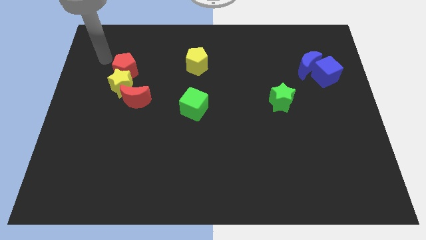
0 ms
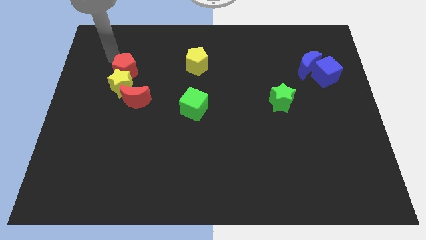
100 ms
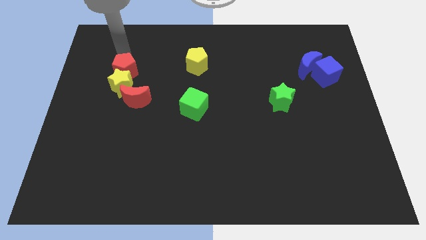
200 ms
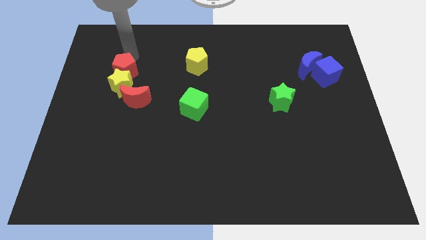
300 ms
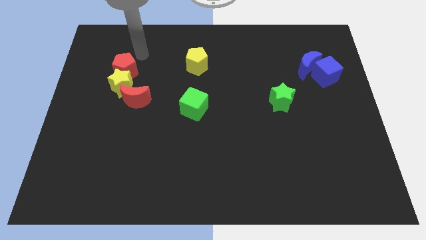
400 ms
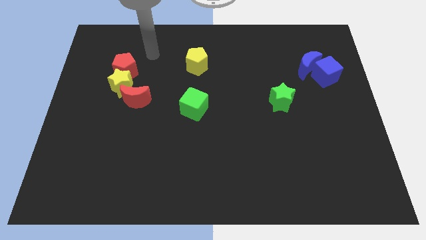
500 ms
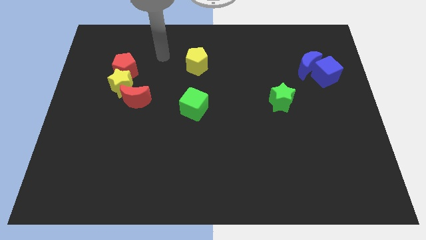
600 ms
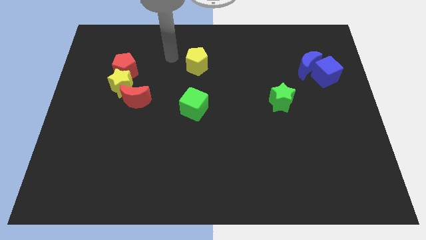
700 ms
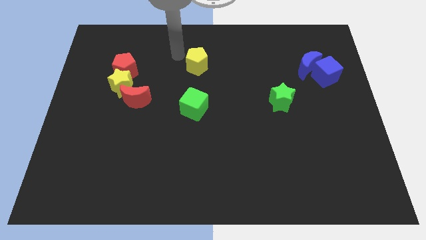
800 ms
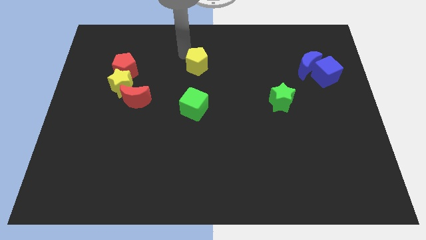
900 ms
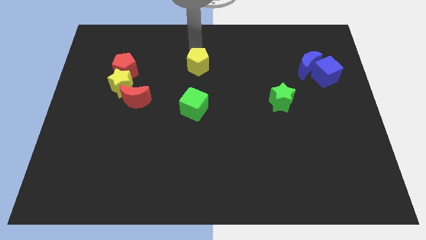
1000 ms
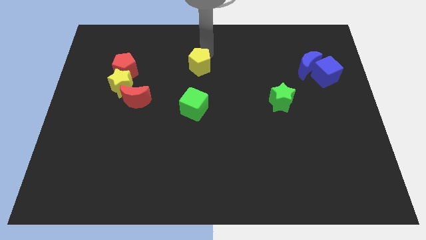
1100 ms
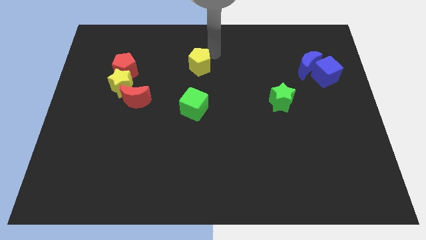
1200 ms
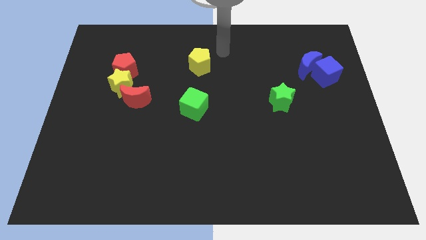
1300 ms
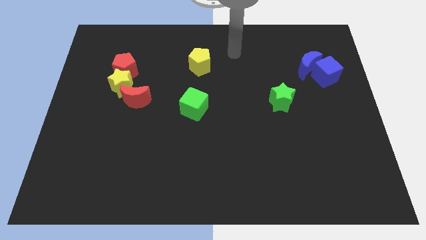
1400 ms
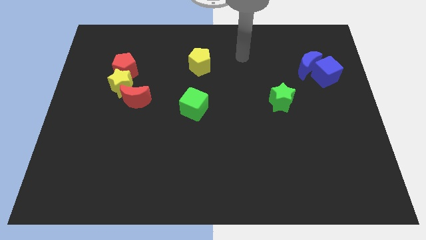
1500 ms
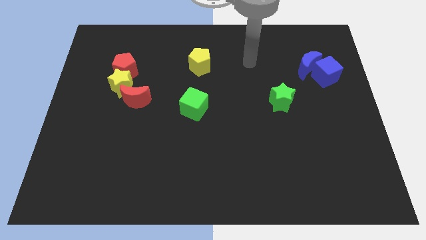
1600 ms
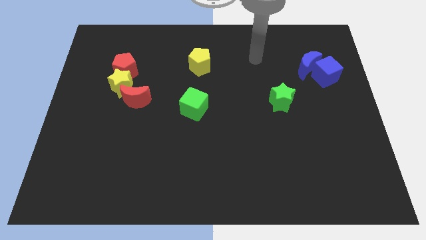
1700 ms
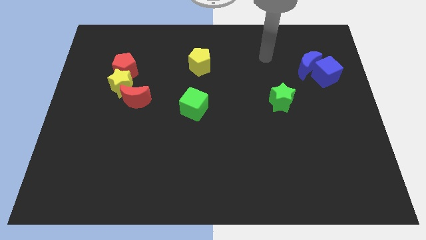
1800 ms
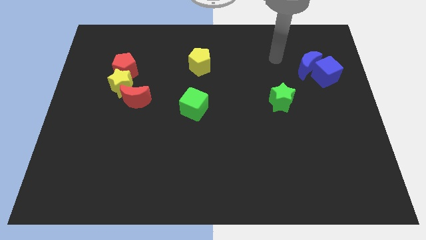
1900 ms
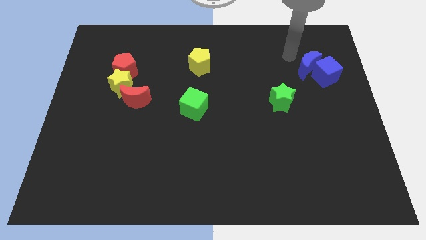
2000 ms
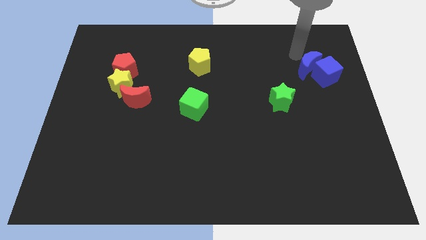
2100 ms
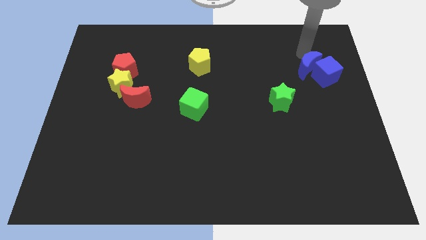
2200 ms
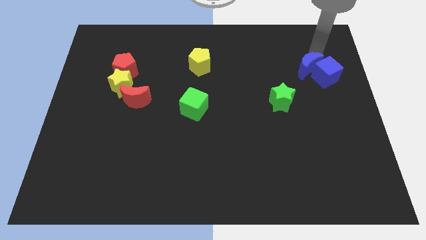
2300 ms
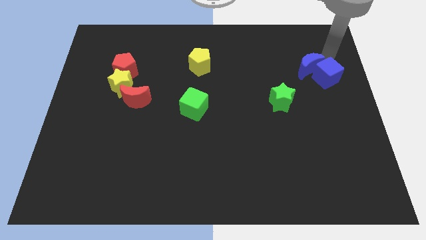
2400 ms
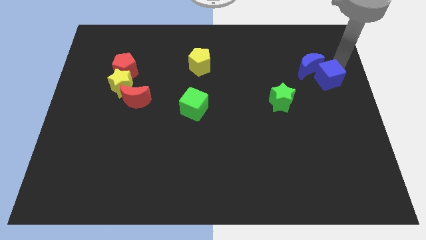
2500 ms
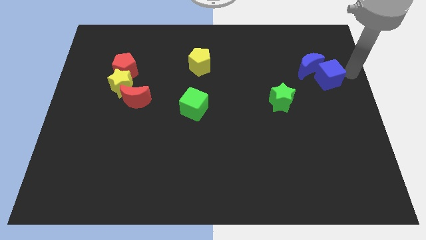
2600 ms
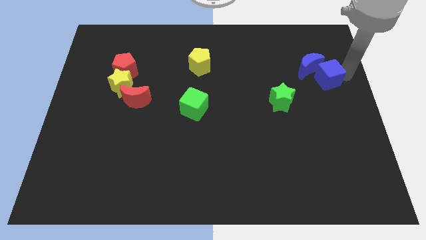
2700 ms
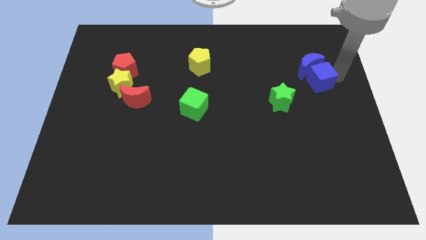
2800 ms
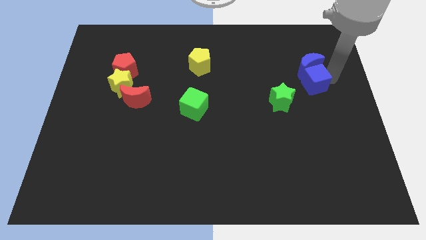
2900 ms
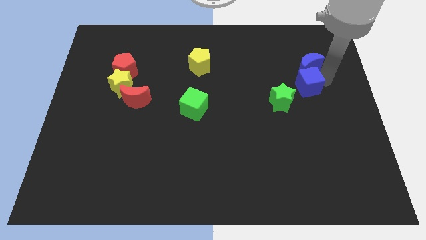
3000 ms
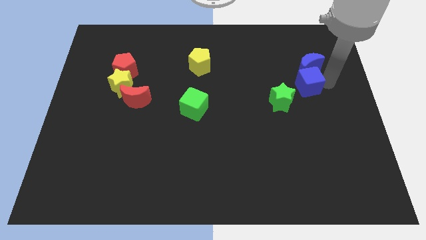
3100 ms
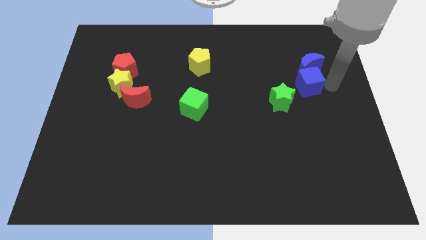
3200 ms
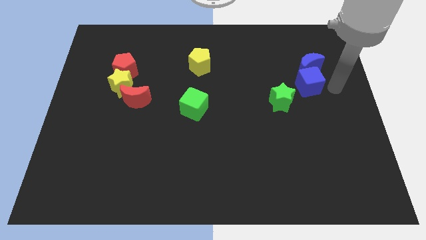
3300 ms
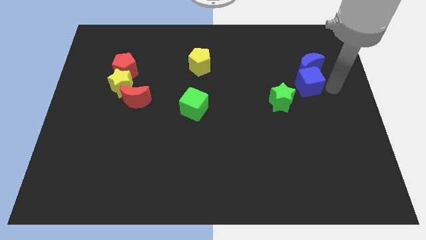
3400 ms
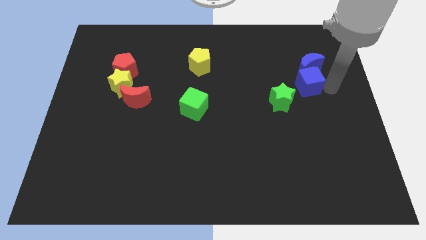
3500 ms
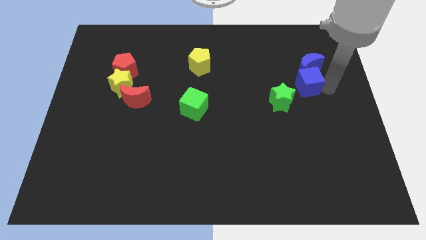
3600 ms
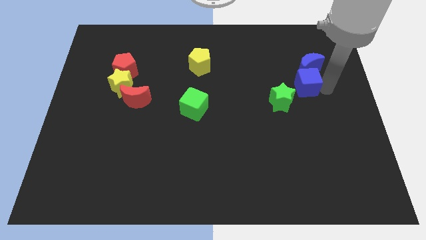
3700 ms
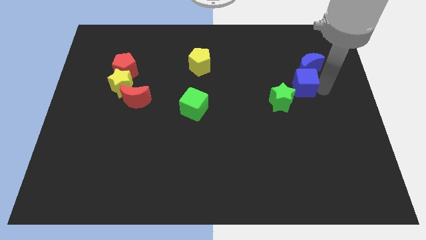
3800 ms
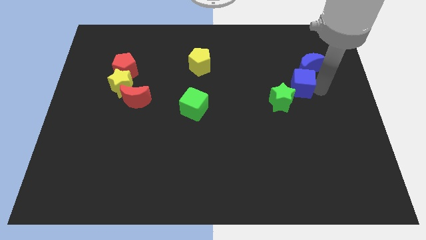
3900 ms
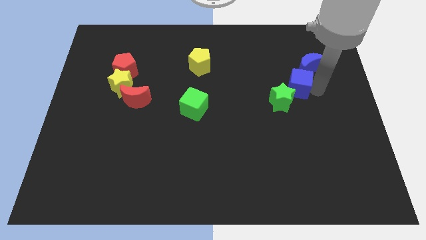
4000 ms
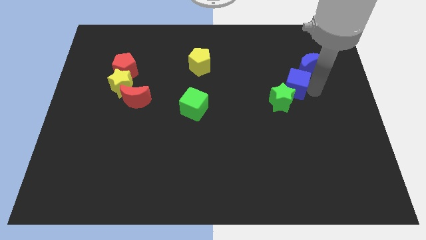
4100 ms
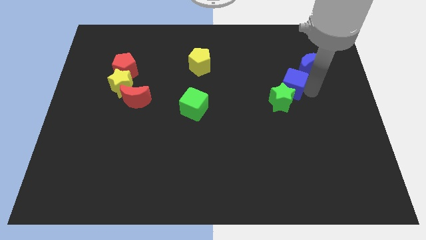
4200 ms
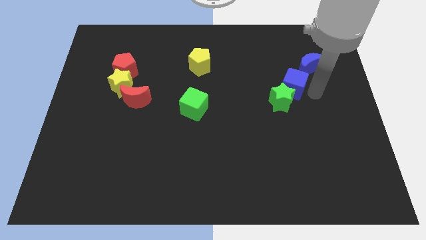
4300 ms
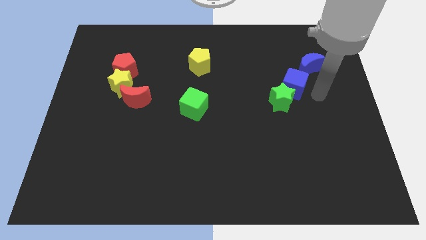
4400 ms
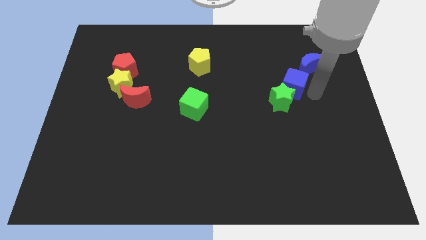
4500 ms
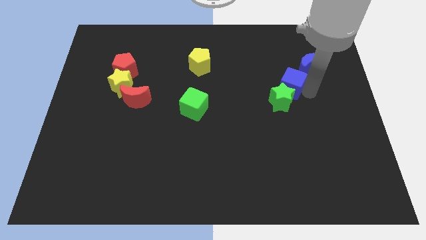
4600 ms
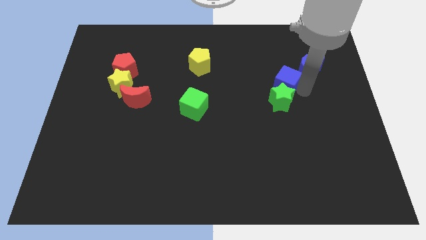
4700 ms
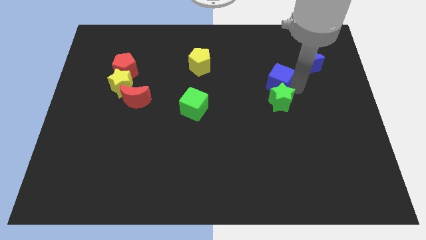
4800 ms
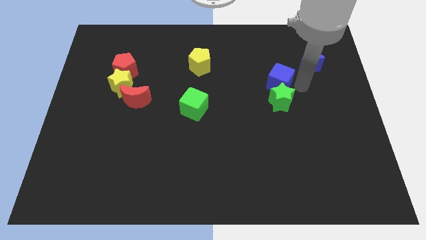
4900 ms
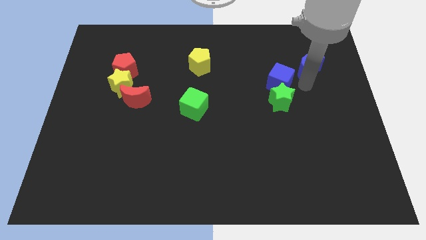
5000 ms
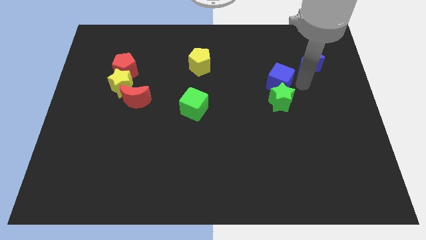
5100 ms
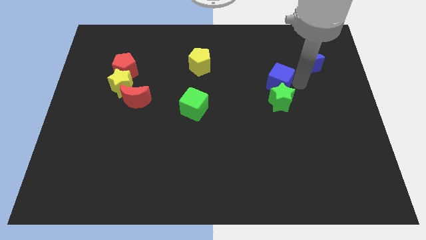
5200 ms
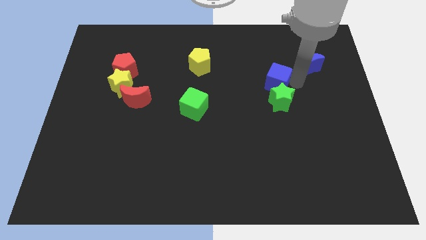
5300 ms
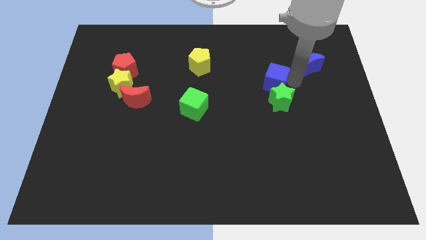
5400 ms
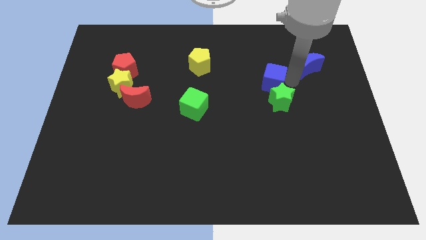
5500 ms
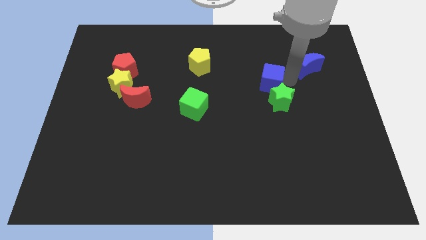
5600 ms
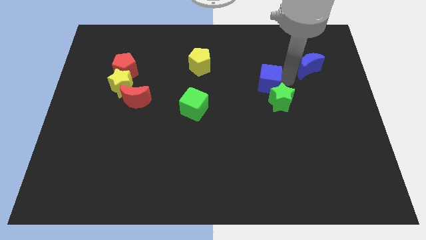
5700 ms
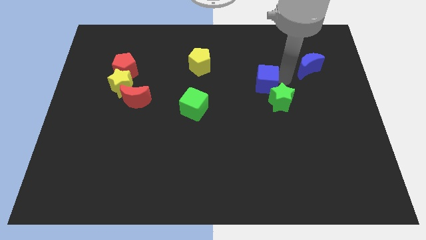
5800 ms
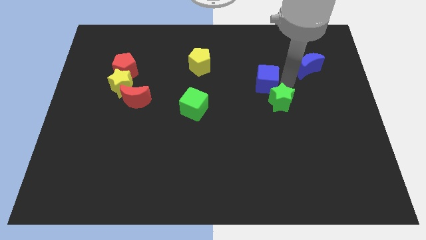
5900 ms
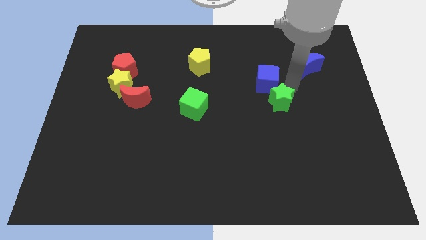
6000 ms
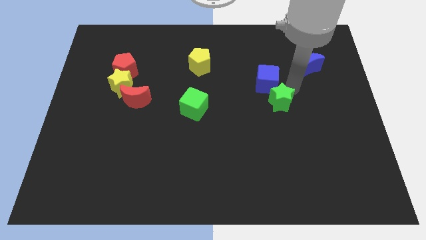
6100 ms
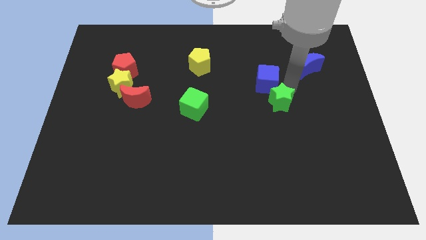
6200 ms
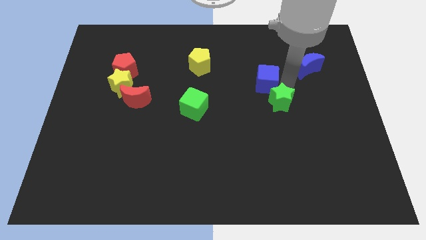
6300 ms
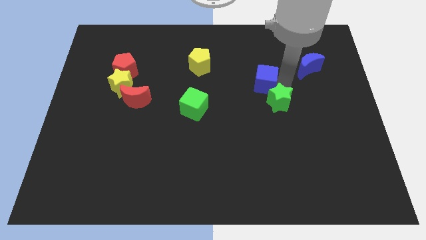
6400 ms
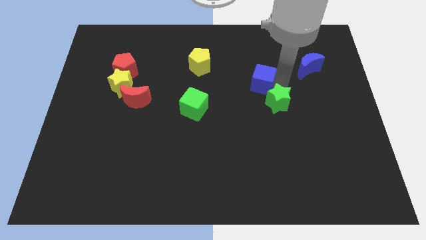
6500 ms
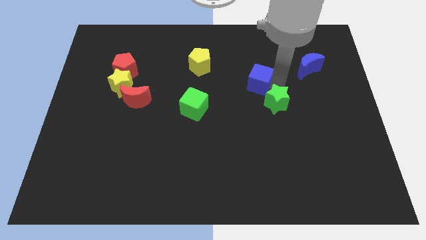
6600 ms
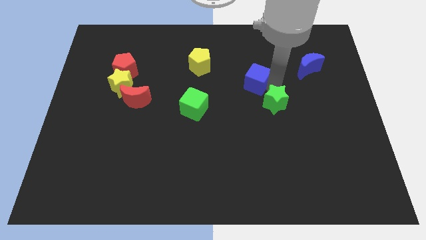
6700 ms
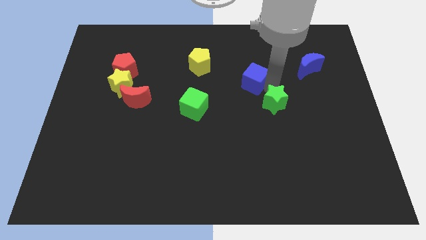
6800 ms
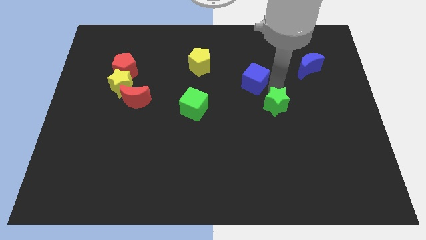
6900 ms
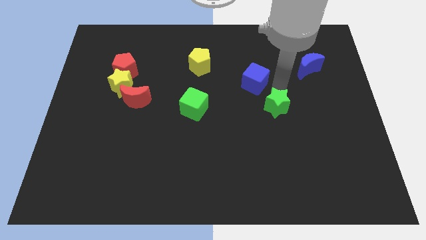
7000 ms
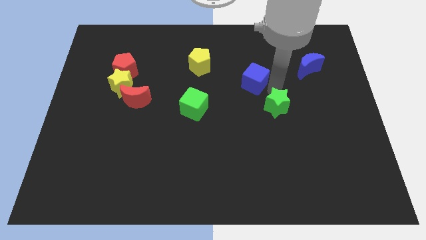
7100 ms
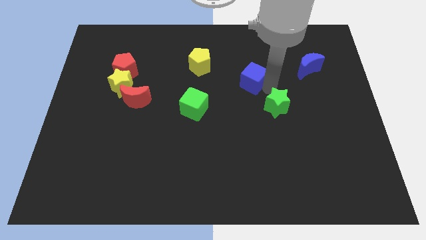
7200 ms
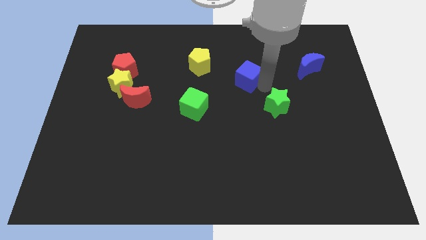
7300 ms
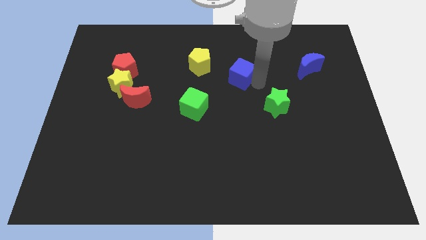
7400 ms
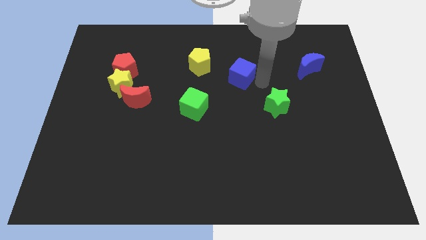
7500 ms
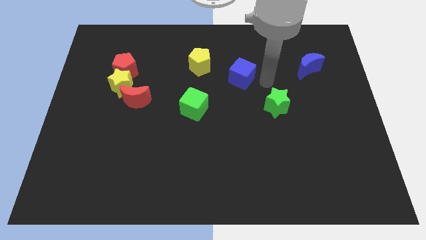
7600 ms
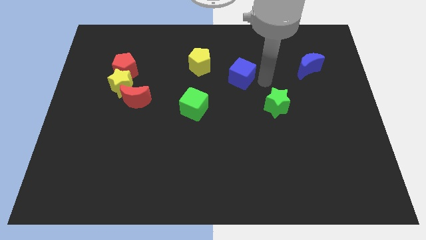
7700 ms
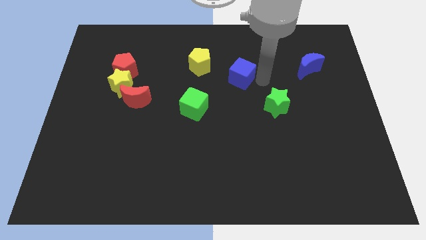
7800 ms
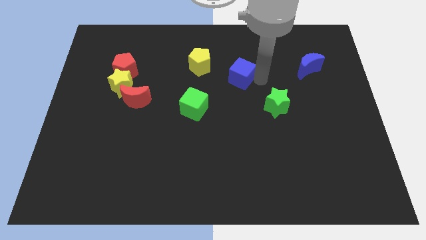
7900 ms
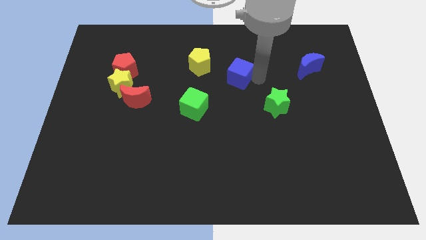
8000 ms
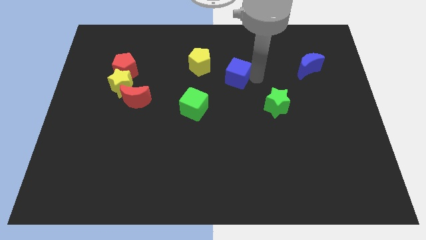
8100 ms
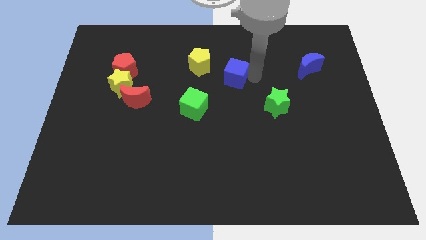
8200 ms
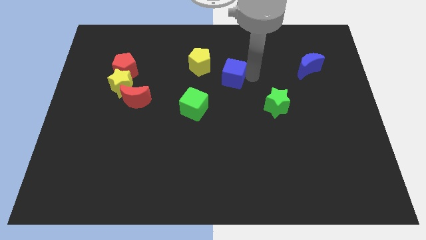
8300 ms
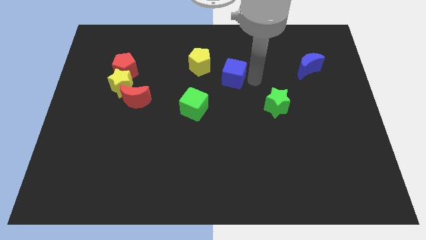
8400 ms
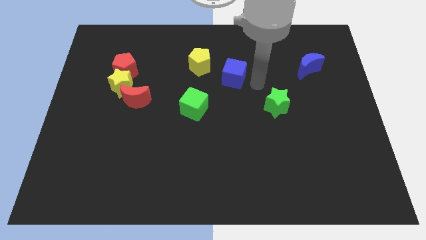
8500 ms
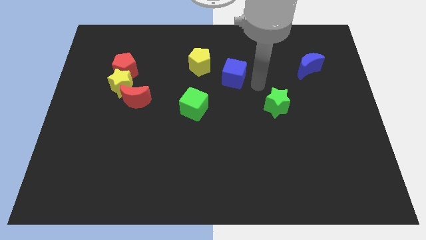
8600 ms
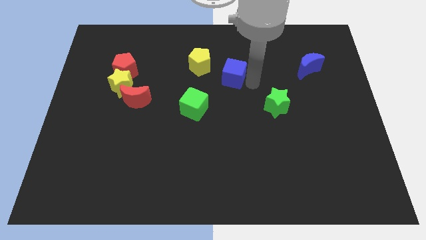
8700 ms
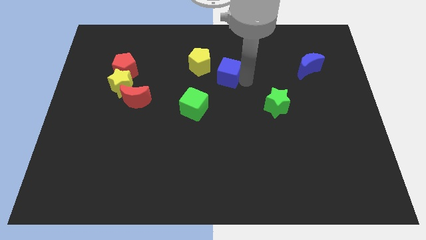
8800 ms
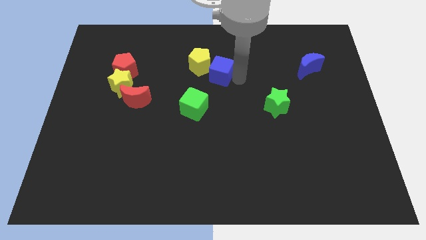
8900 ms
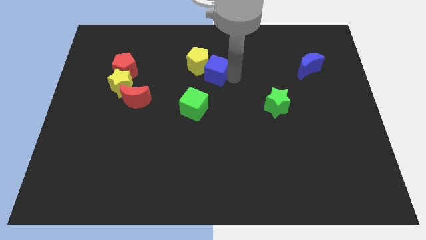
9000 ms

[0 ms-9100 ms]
move the blue cube next to the yellow pentagon
